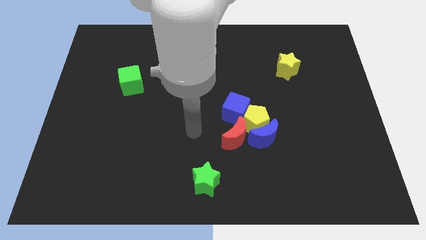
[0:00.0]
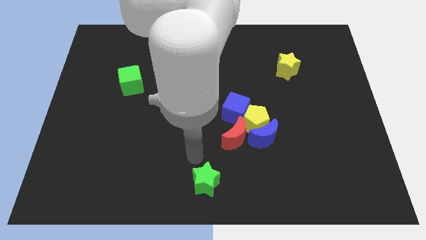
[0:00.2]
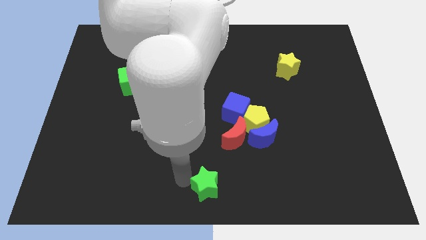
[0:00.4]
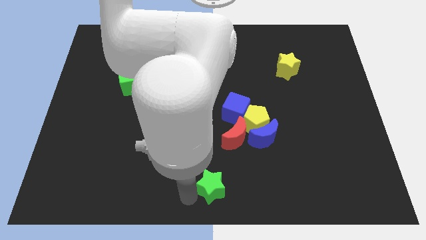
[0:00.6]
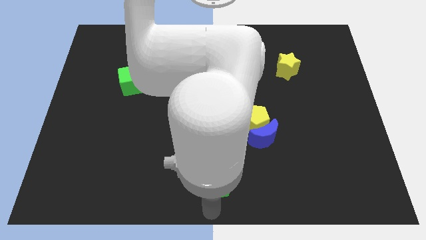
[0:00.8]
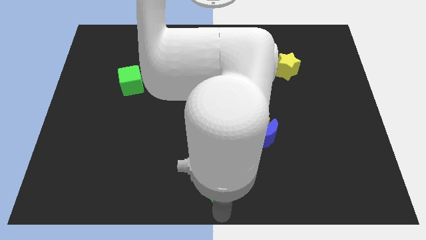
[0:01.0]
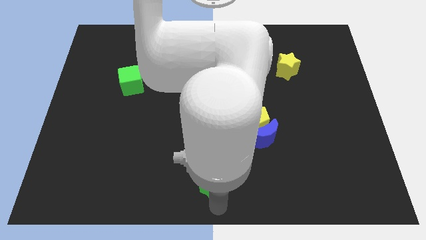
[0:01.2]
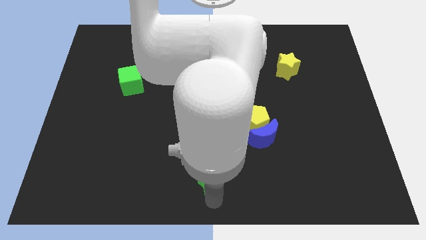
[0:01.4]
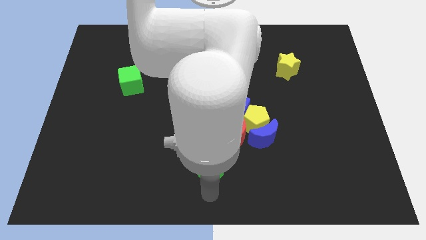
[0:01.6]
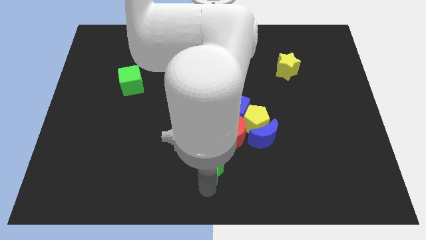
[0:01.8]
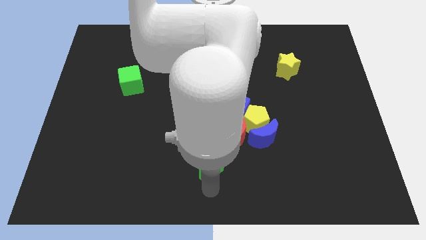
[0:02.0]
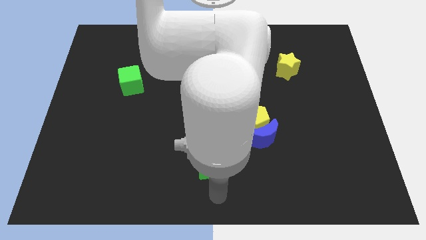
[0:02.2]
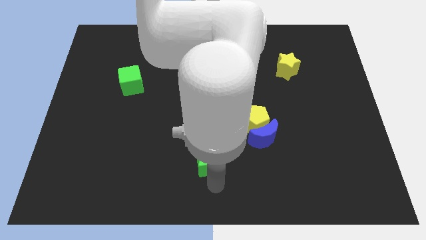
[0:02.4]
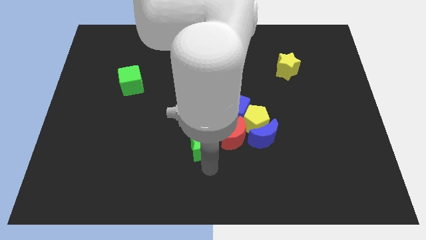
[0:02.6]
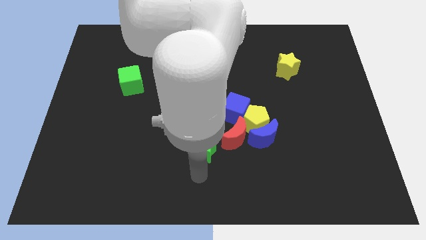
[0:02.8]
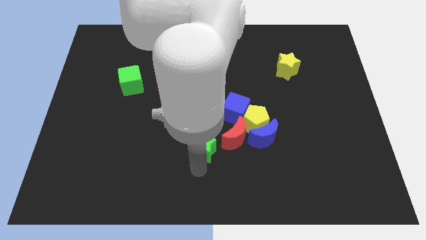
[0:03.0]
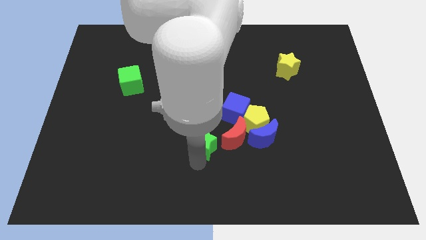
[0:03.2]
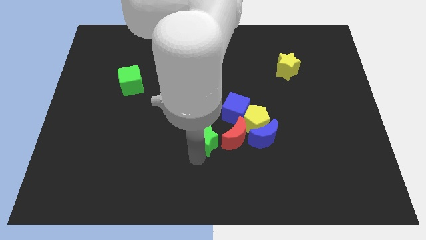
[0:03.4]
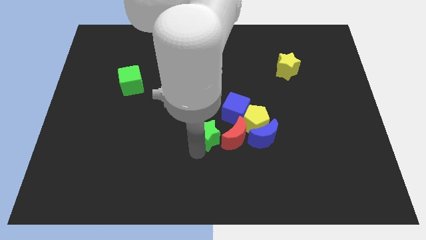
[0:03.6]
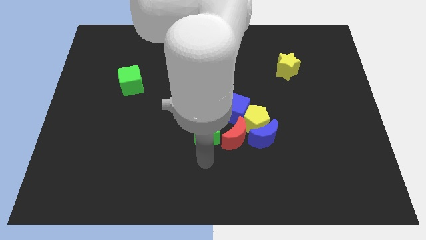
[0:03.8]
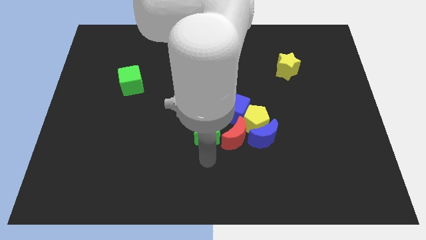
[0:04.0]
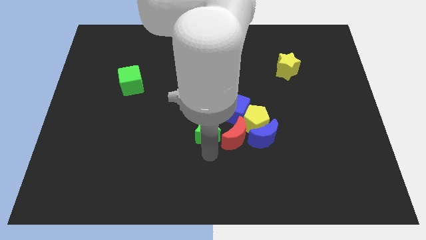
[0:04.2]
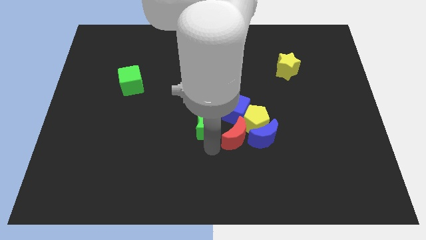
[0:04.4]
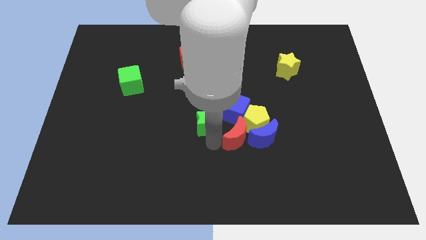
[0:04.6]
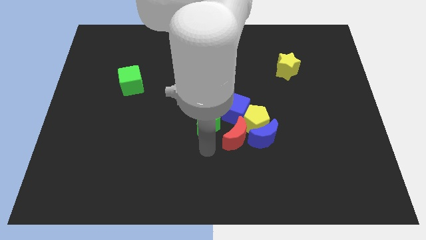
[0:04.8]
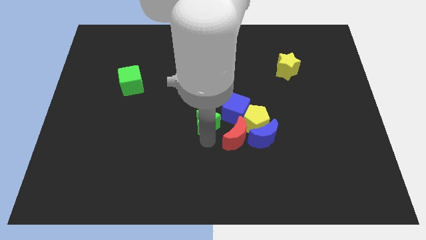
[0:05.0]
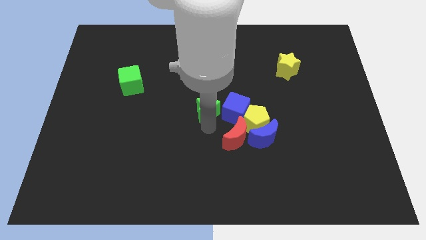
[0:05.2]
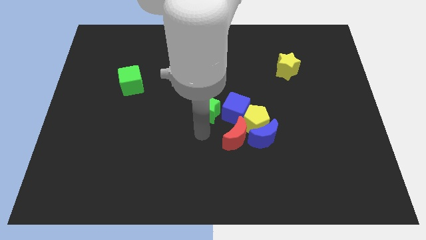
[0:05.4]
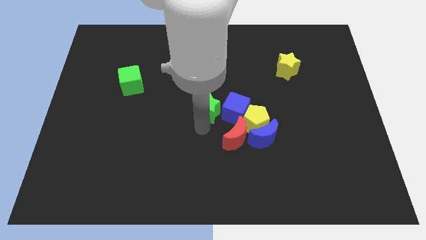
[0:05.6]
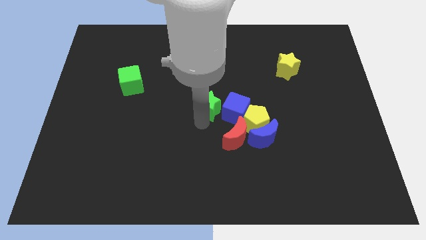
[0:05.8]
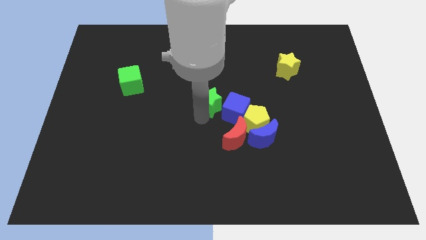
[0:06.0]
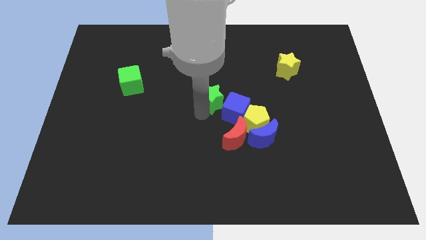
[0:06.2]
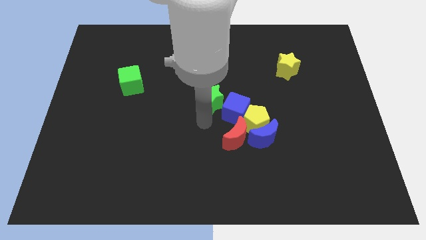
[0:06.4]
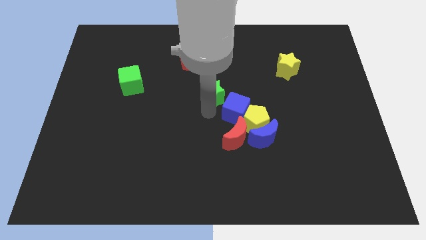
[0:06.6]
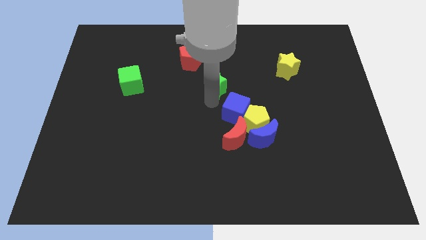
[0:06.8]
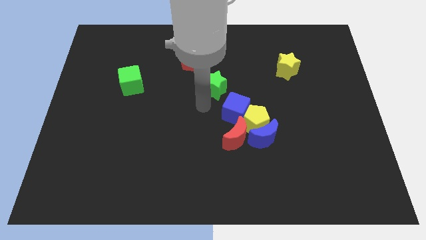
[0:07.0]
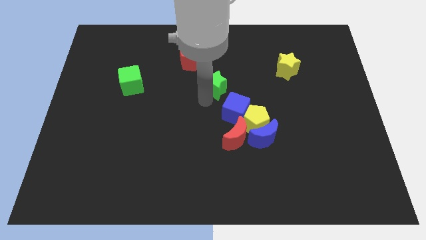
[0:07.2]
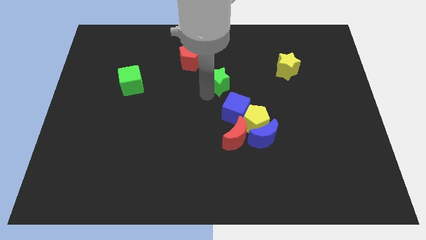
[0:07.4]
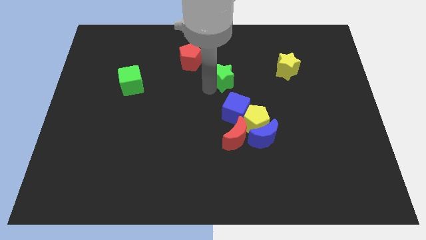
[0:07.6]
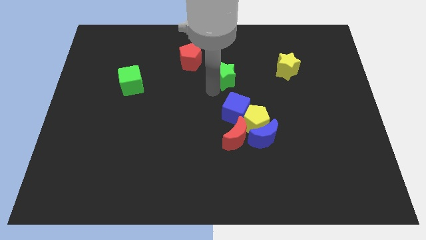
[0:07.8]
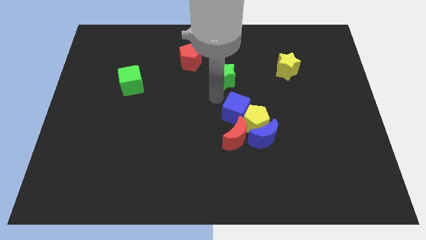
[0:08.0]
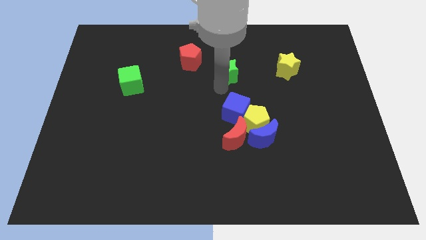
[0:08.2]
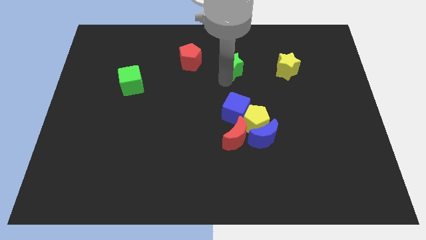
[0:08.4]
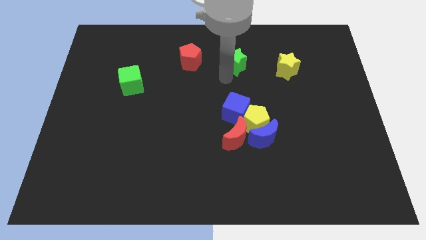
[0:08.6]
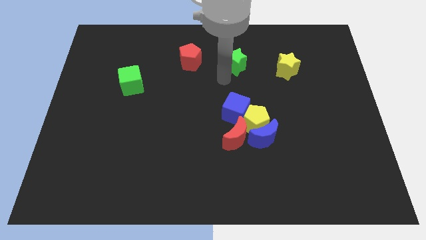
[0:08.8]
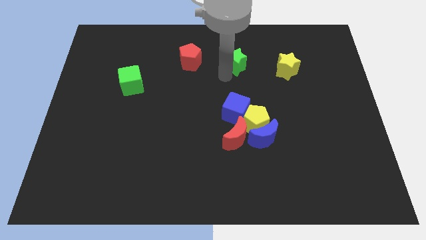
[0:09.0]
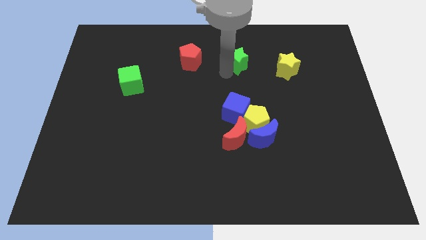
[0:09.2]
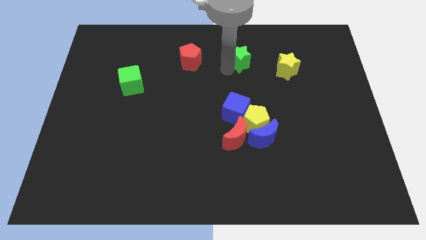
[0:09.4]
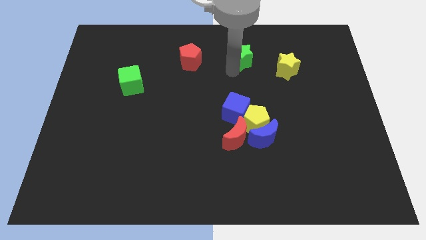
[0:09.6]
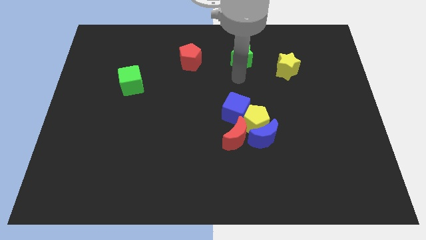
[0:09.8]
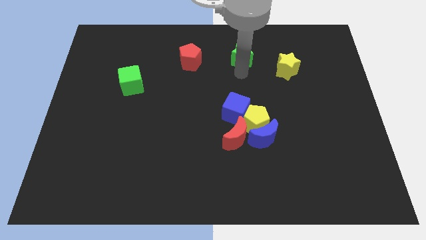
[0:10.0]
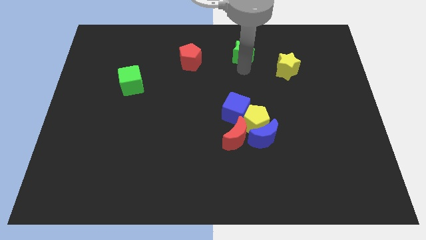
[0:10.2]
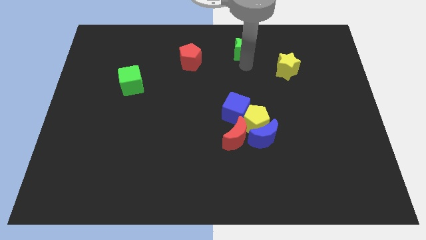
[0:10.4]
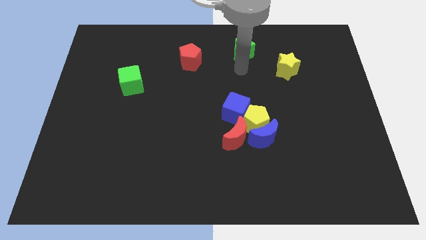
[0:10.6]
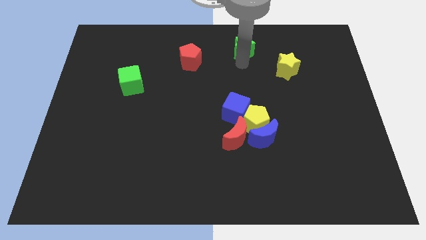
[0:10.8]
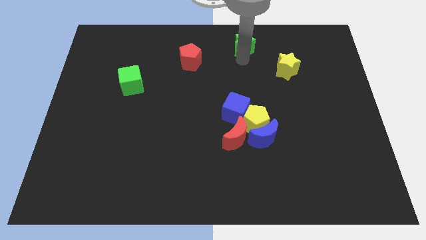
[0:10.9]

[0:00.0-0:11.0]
put the green star to the top

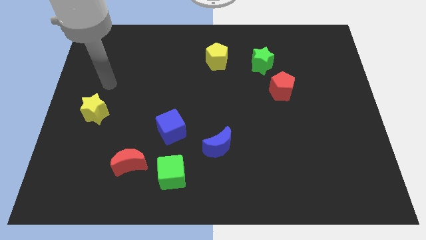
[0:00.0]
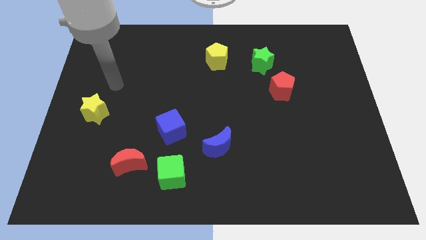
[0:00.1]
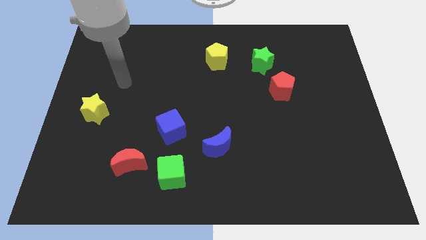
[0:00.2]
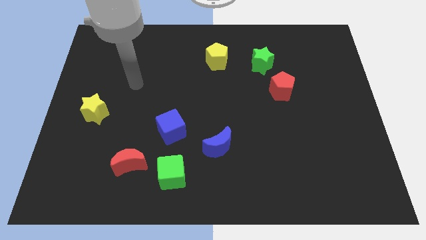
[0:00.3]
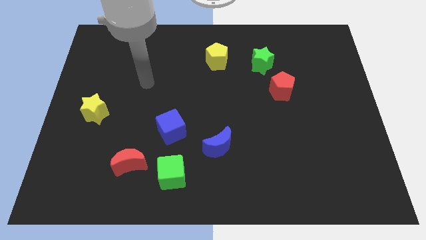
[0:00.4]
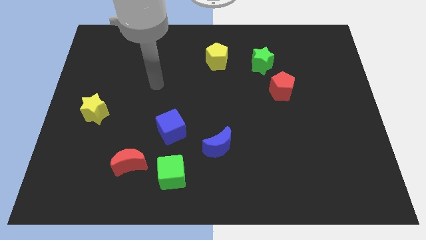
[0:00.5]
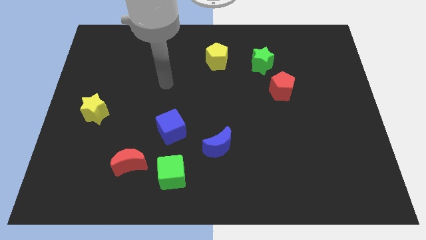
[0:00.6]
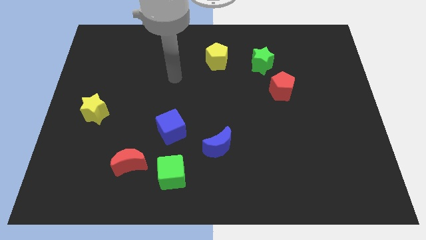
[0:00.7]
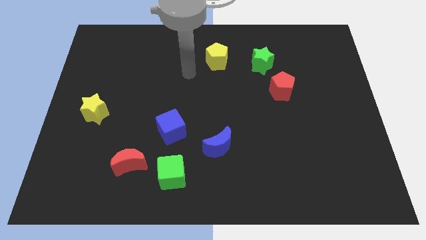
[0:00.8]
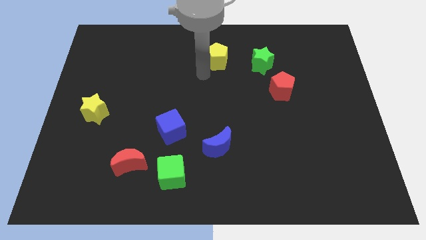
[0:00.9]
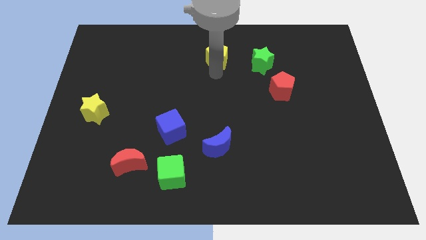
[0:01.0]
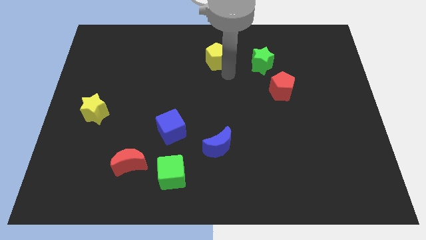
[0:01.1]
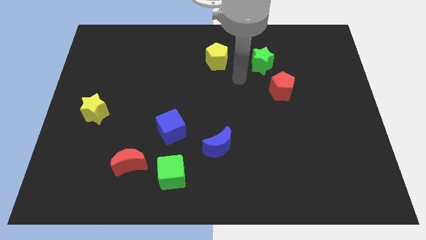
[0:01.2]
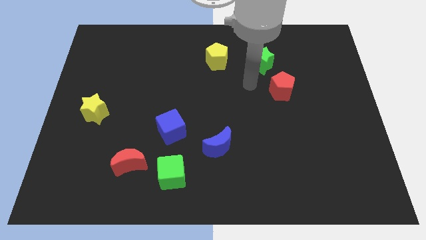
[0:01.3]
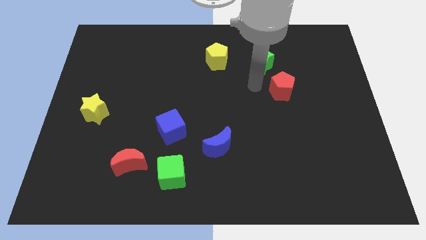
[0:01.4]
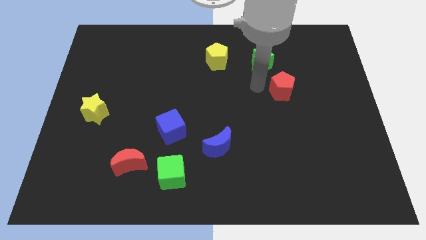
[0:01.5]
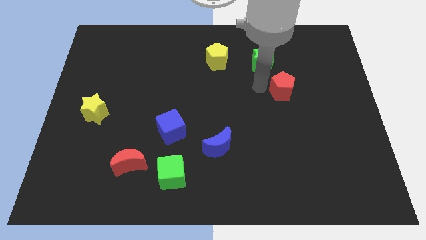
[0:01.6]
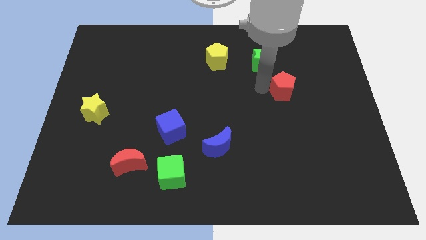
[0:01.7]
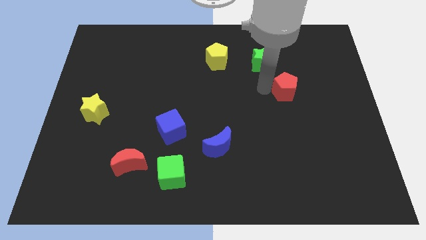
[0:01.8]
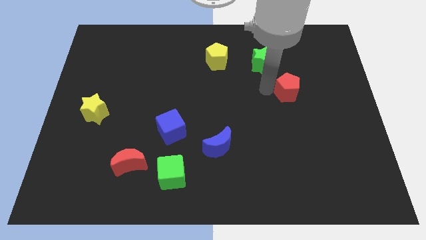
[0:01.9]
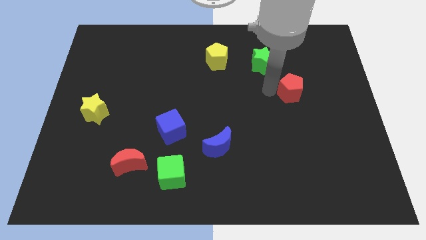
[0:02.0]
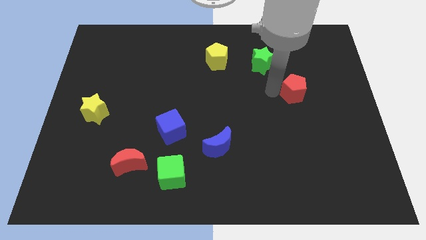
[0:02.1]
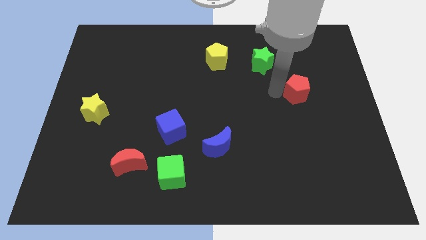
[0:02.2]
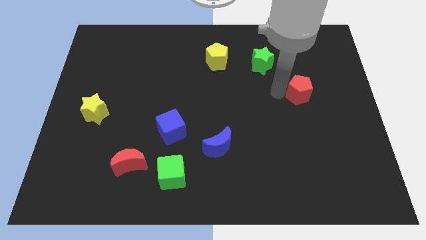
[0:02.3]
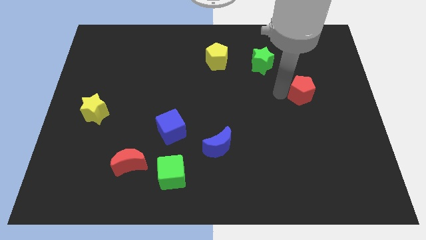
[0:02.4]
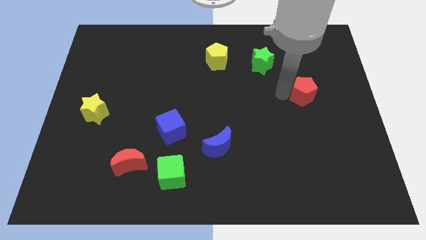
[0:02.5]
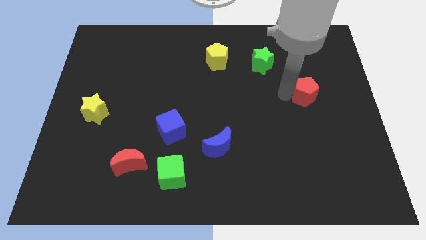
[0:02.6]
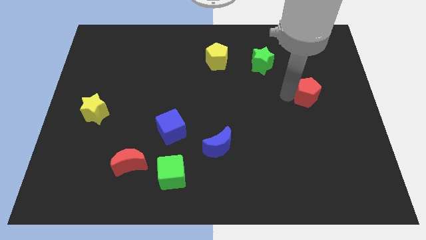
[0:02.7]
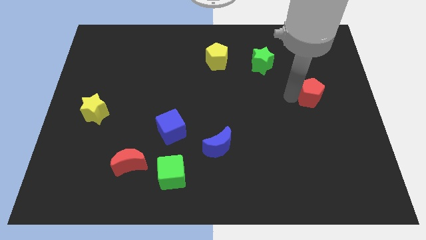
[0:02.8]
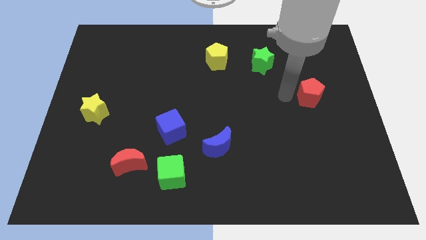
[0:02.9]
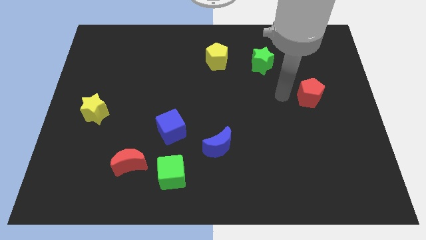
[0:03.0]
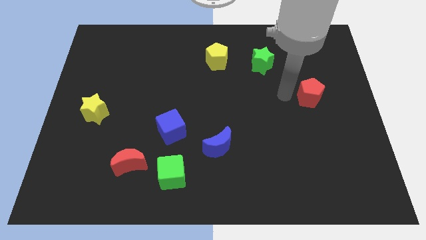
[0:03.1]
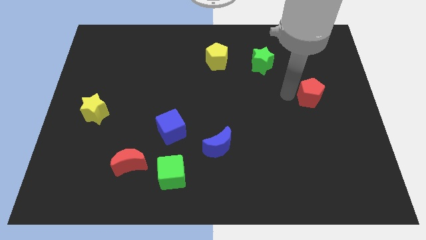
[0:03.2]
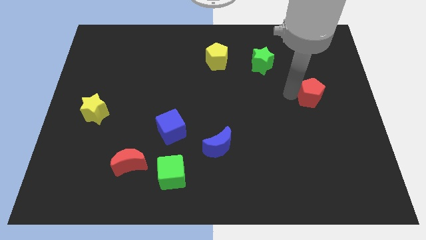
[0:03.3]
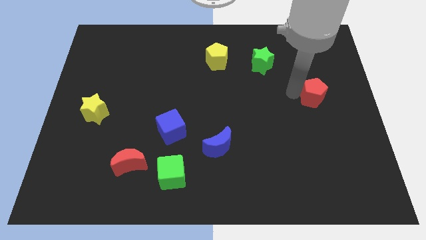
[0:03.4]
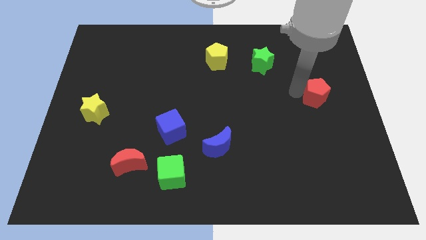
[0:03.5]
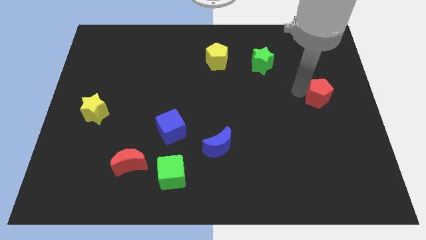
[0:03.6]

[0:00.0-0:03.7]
move the red pentagon to the right side
